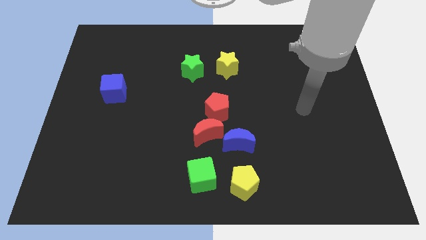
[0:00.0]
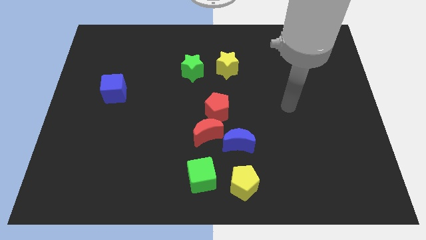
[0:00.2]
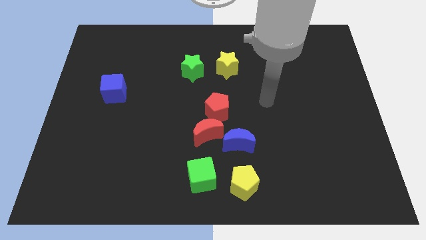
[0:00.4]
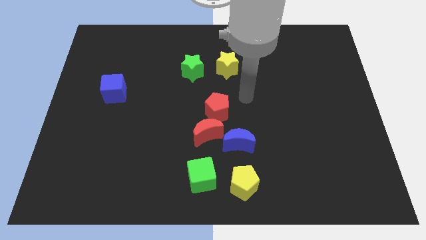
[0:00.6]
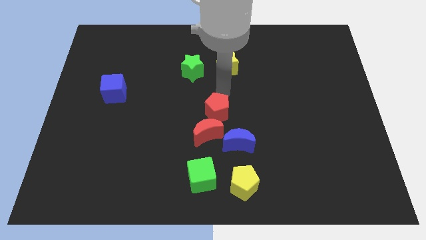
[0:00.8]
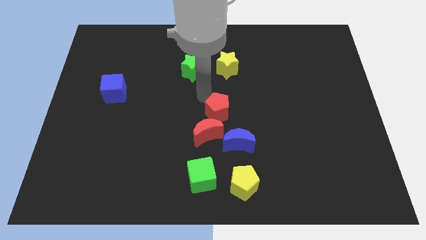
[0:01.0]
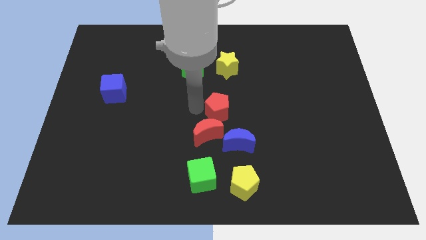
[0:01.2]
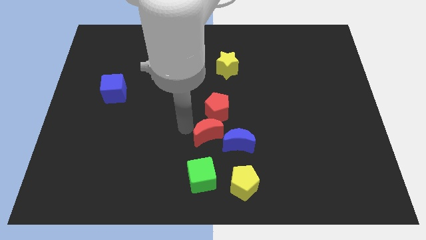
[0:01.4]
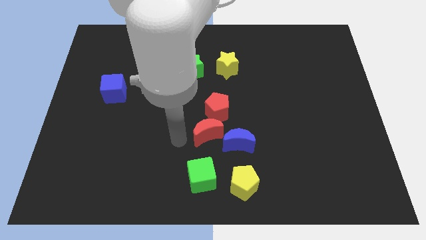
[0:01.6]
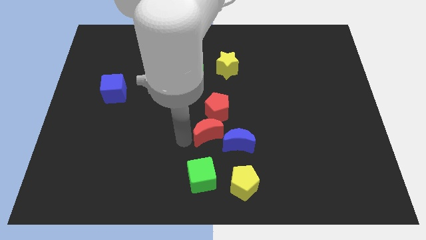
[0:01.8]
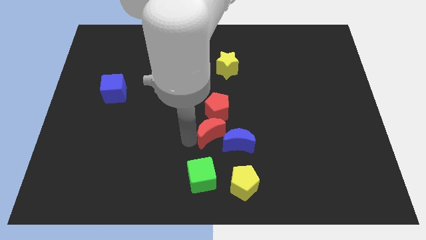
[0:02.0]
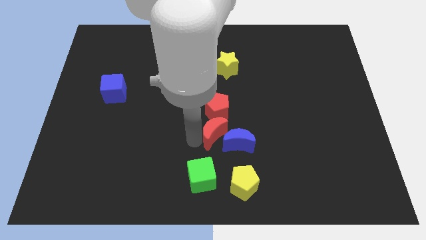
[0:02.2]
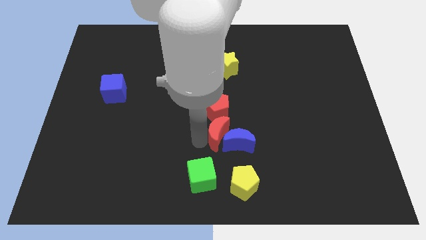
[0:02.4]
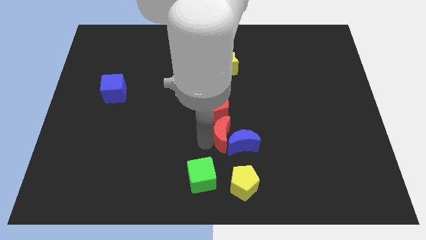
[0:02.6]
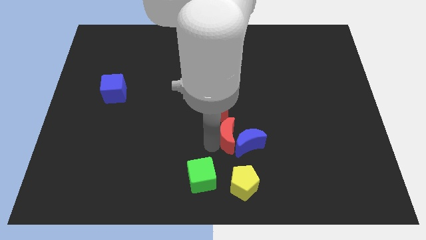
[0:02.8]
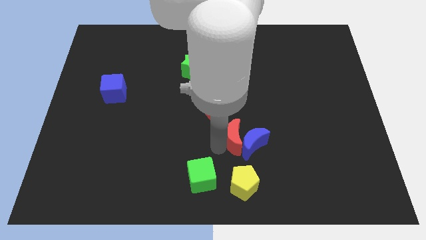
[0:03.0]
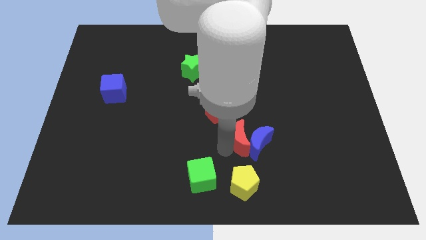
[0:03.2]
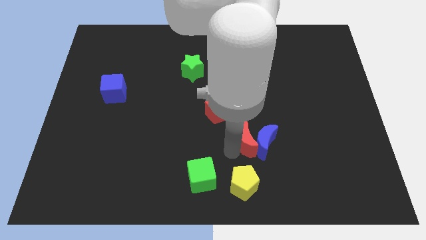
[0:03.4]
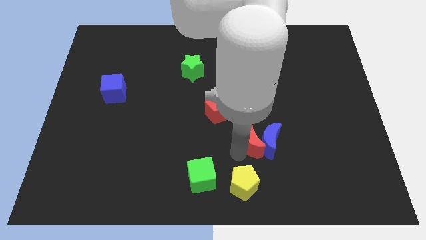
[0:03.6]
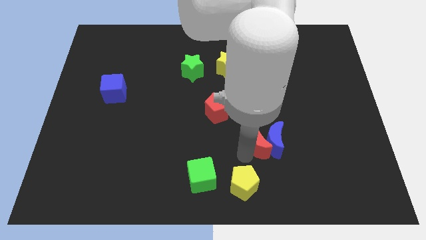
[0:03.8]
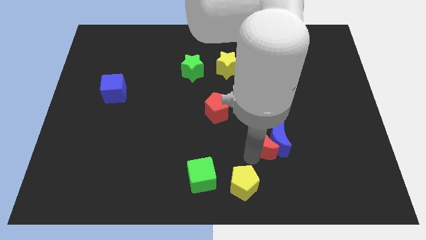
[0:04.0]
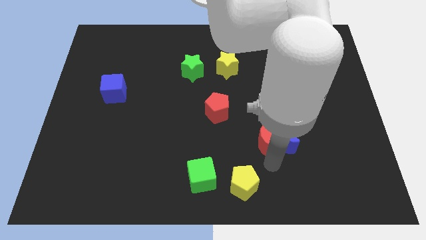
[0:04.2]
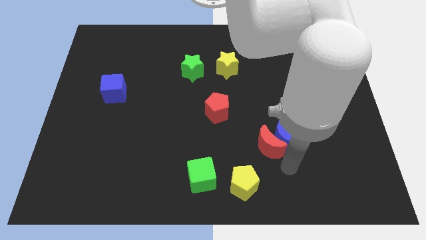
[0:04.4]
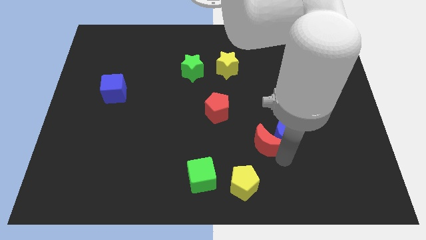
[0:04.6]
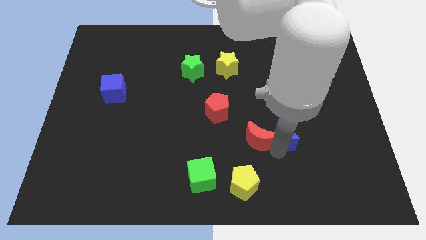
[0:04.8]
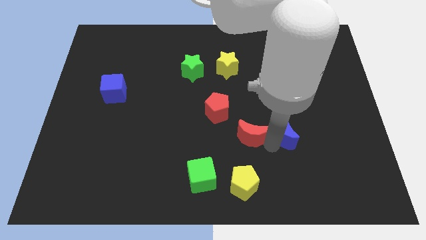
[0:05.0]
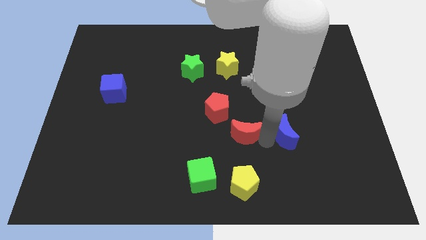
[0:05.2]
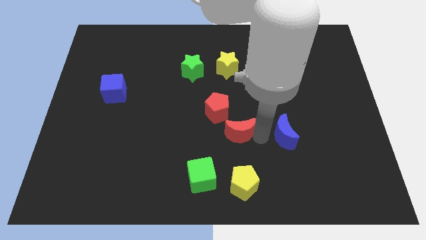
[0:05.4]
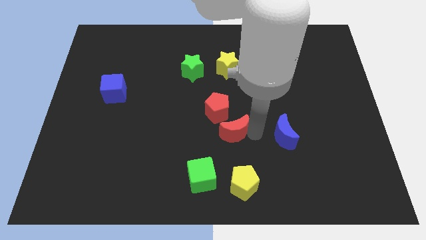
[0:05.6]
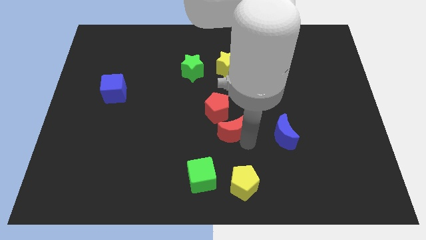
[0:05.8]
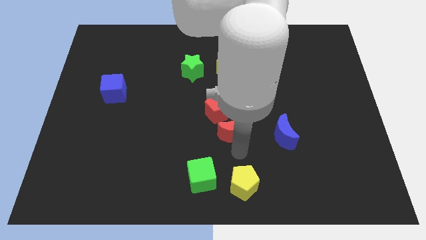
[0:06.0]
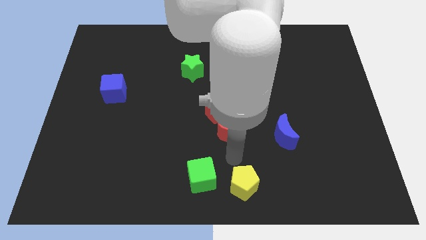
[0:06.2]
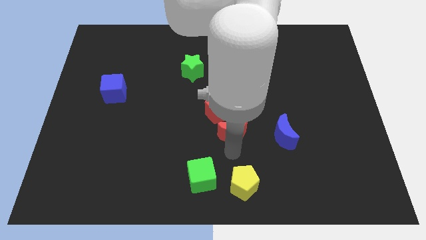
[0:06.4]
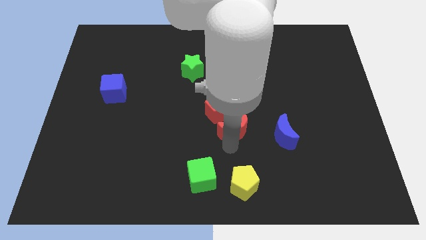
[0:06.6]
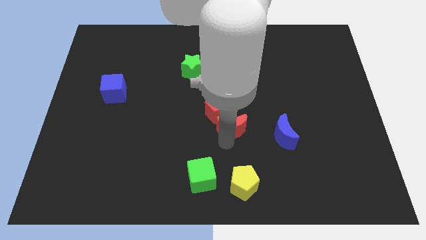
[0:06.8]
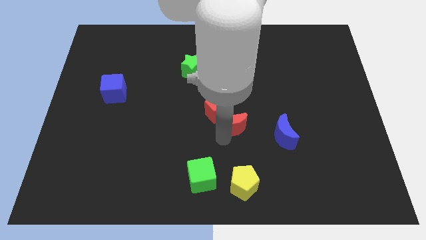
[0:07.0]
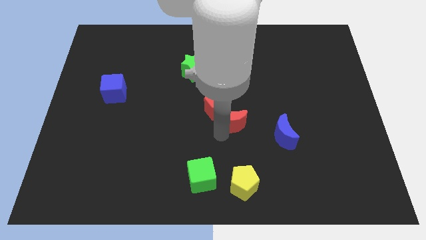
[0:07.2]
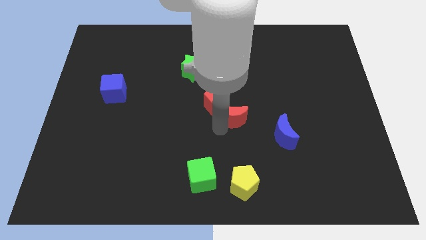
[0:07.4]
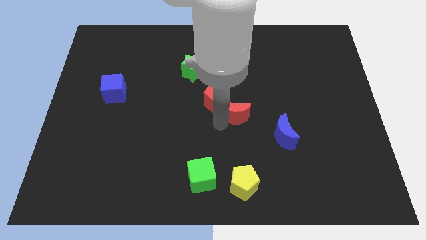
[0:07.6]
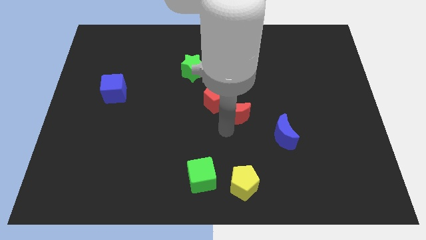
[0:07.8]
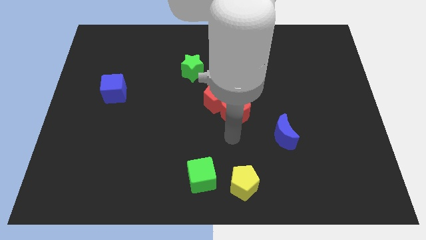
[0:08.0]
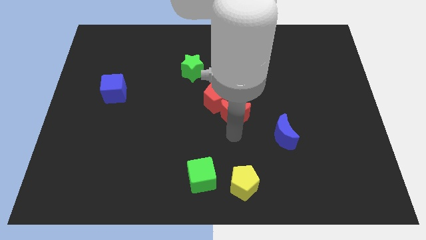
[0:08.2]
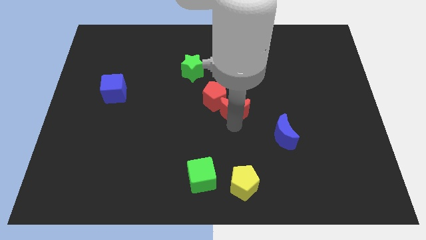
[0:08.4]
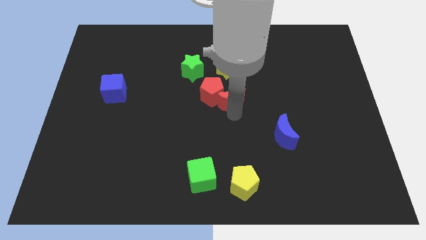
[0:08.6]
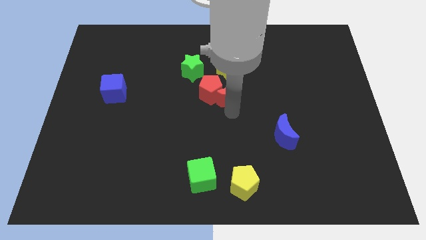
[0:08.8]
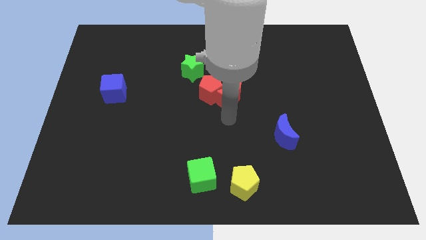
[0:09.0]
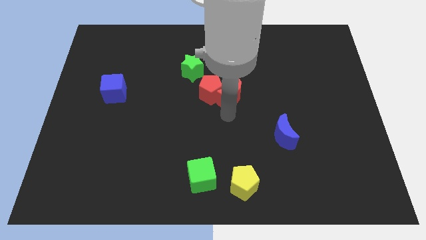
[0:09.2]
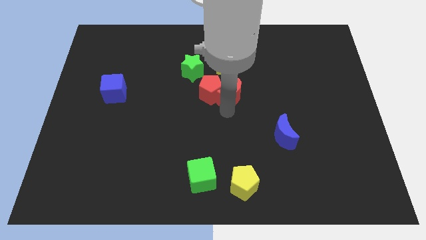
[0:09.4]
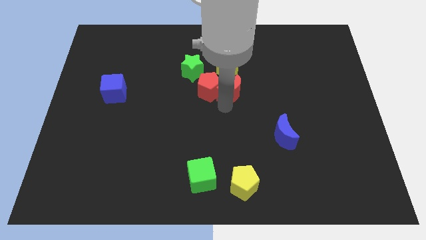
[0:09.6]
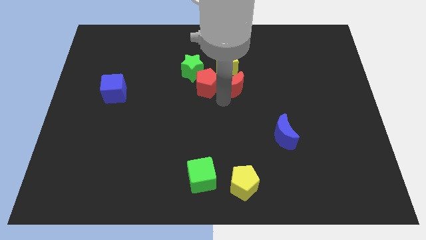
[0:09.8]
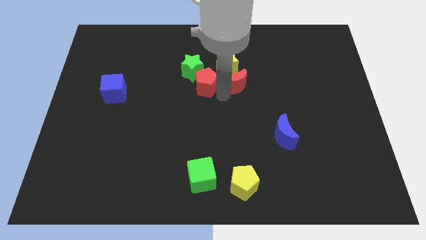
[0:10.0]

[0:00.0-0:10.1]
move the red moon next to the yellow star

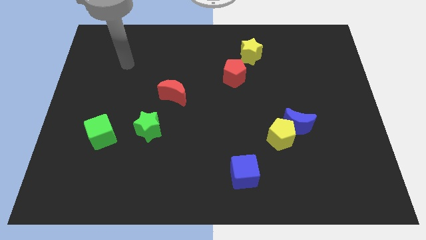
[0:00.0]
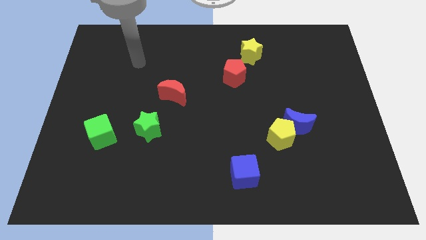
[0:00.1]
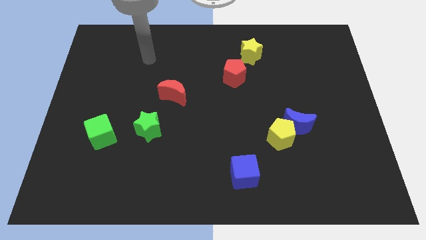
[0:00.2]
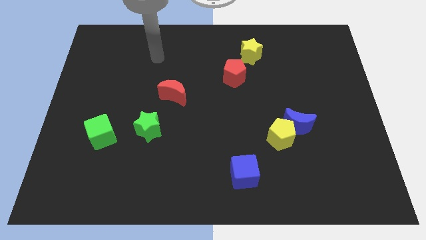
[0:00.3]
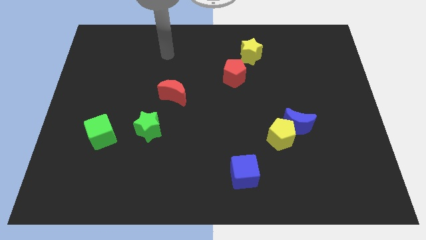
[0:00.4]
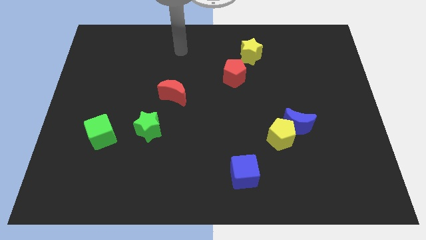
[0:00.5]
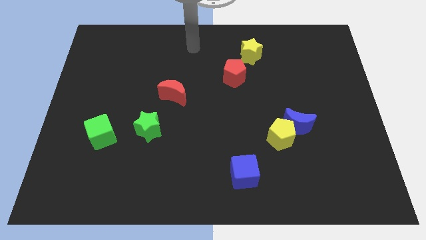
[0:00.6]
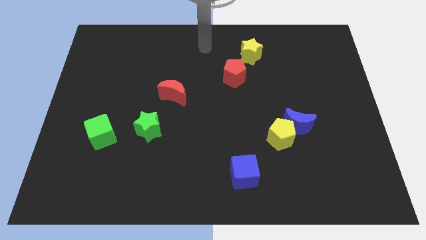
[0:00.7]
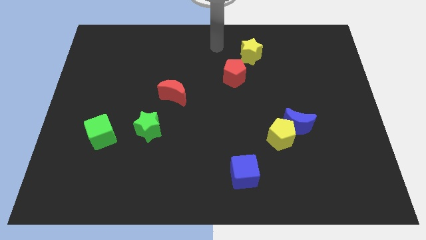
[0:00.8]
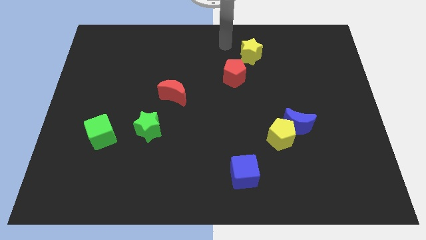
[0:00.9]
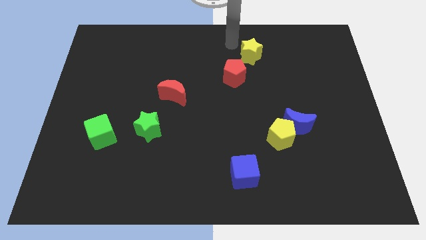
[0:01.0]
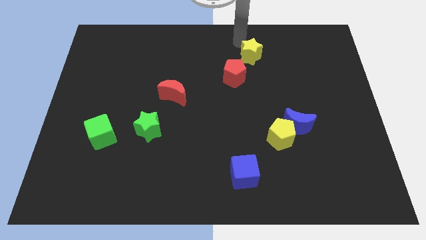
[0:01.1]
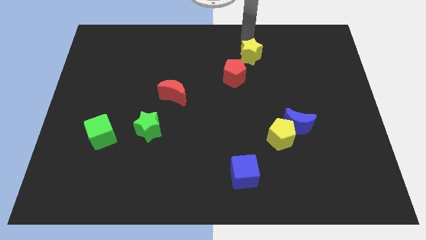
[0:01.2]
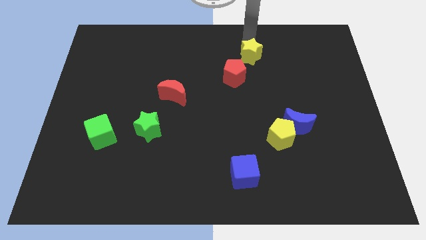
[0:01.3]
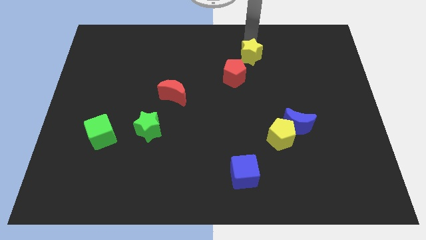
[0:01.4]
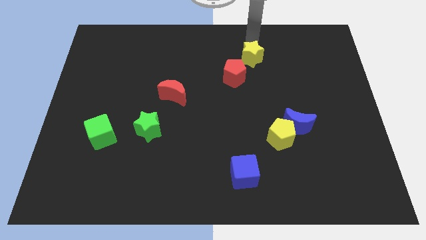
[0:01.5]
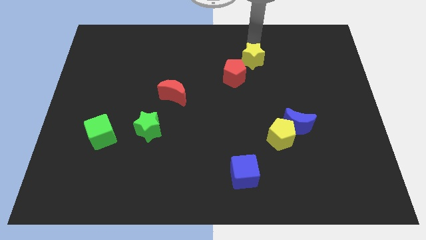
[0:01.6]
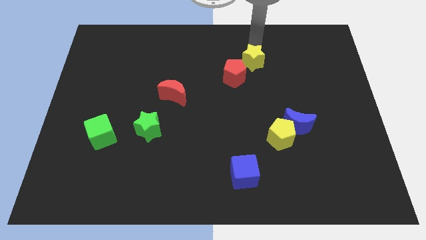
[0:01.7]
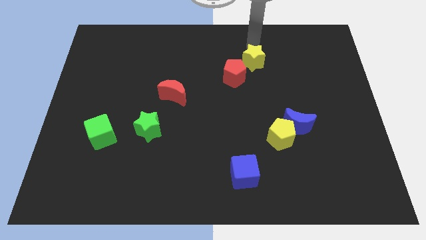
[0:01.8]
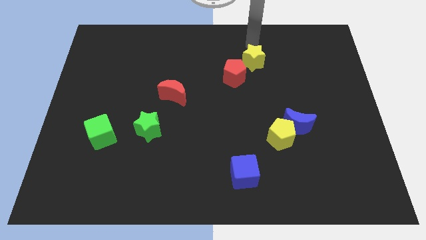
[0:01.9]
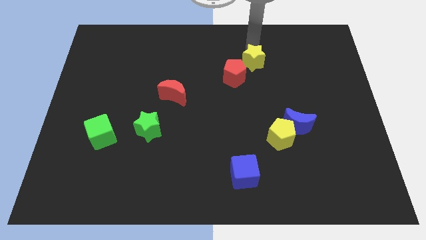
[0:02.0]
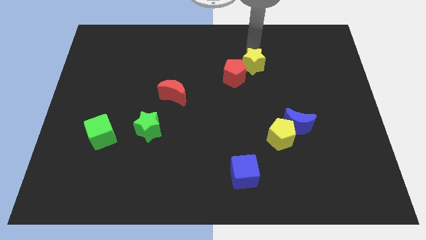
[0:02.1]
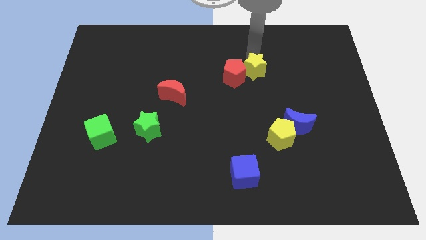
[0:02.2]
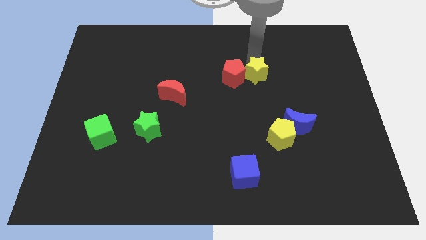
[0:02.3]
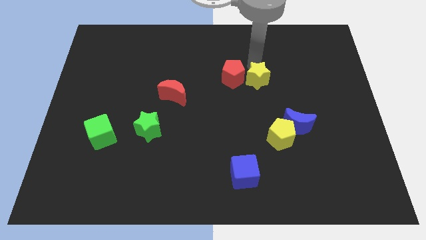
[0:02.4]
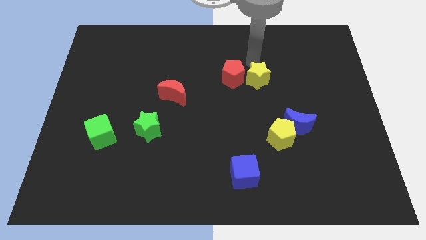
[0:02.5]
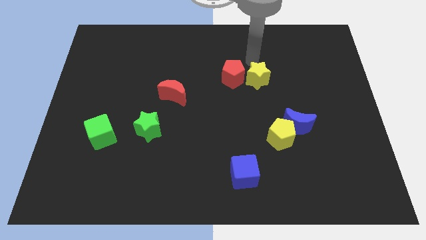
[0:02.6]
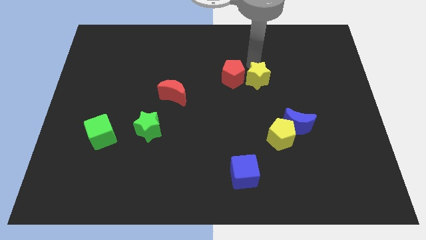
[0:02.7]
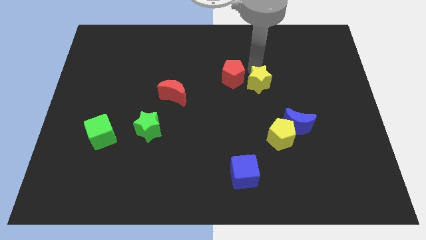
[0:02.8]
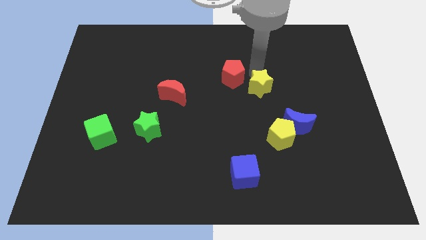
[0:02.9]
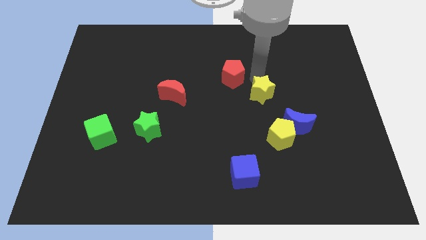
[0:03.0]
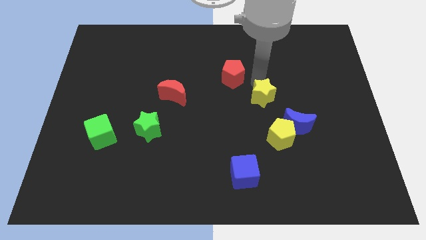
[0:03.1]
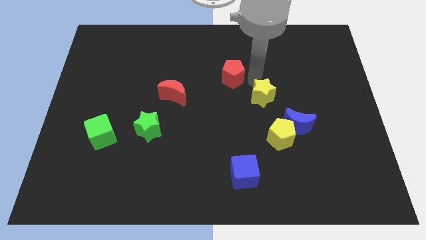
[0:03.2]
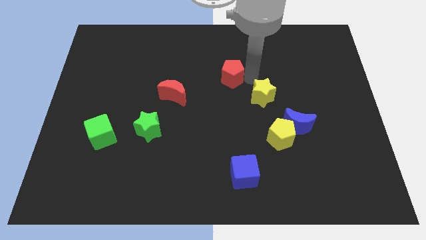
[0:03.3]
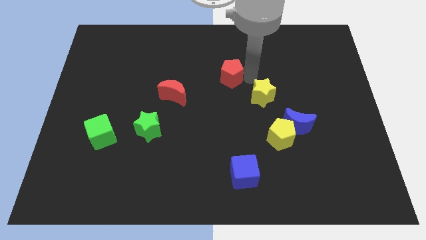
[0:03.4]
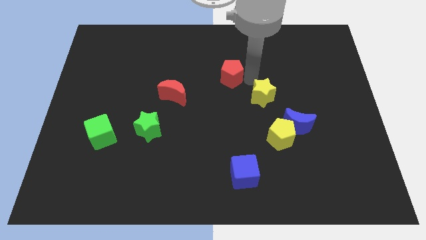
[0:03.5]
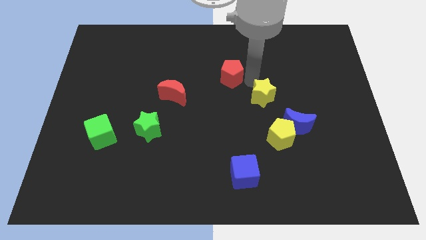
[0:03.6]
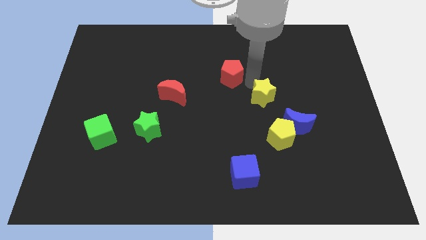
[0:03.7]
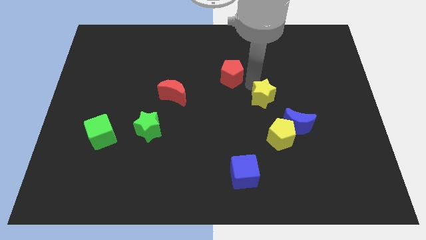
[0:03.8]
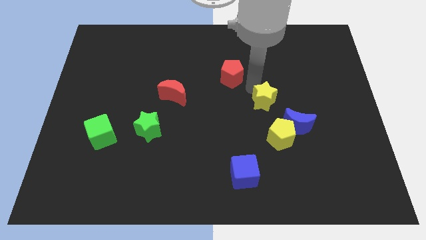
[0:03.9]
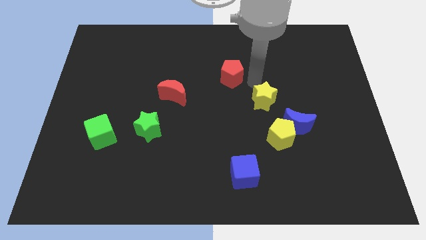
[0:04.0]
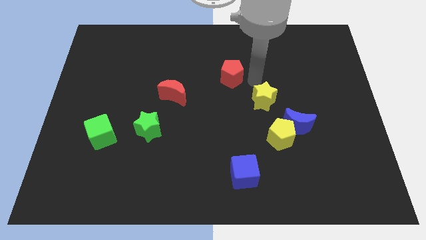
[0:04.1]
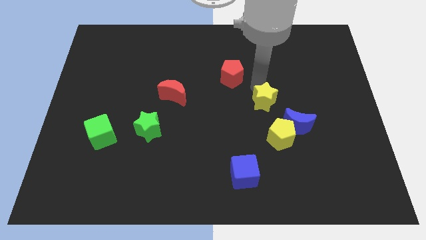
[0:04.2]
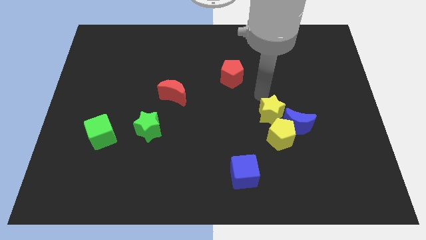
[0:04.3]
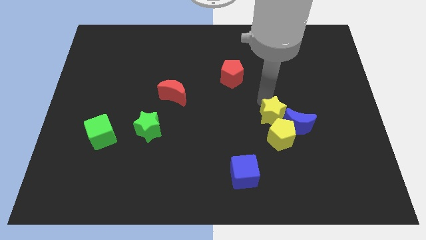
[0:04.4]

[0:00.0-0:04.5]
put the yellow star close to the yellow pentagon
